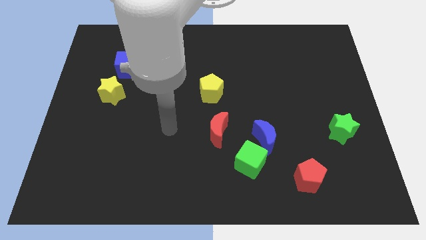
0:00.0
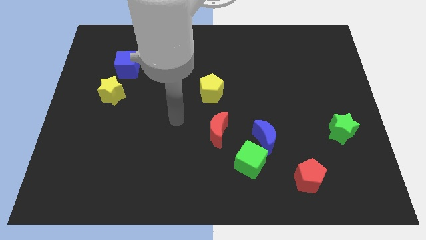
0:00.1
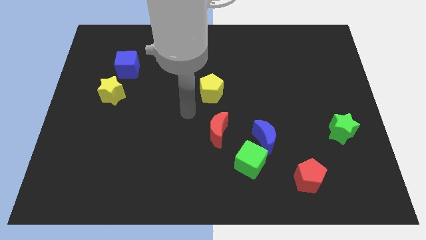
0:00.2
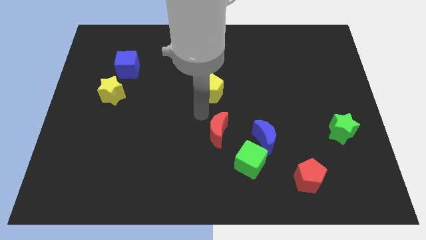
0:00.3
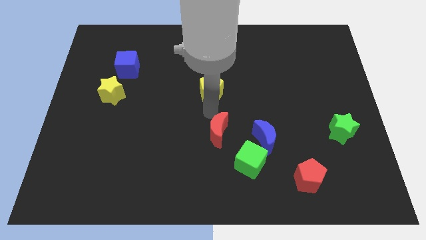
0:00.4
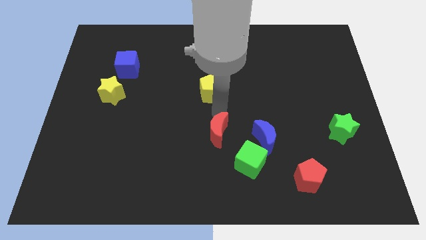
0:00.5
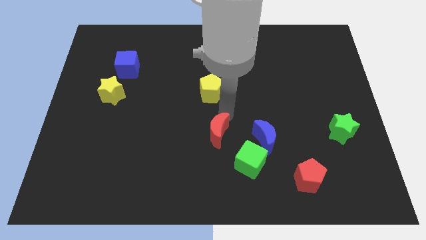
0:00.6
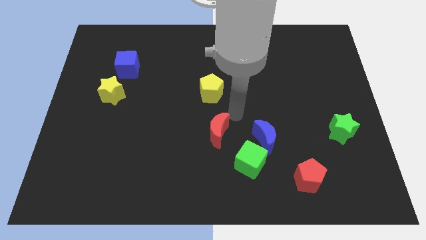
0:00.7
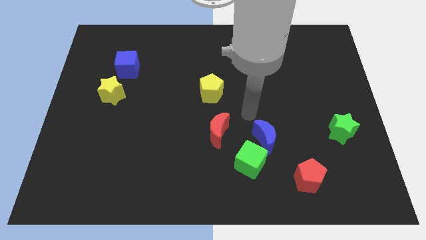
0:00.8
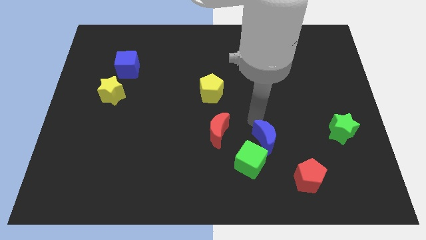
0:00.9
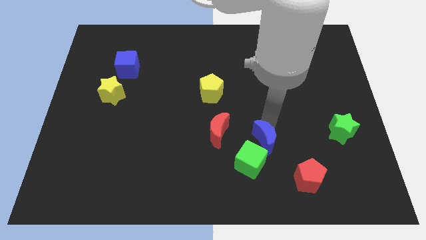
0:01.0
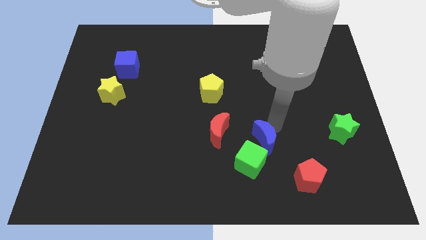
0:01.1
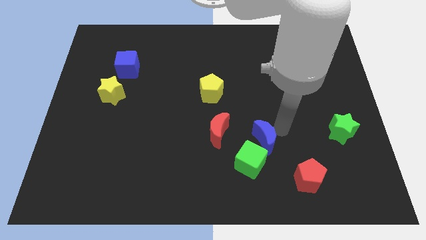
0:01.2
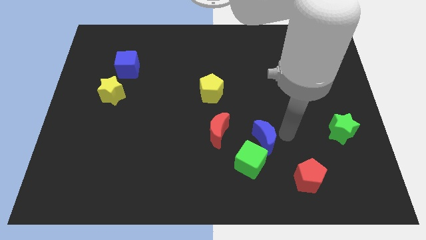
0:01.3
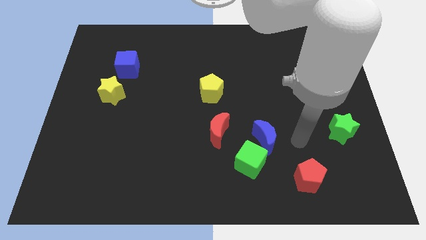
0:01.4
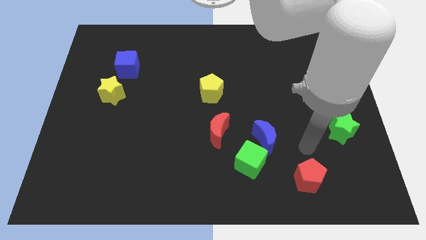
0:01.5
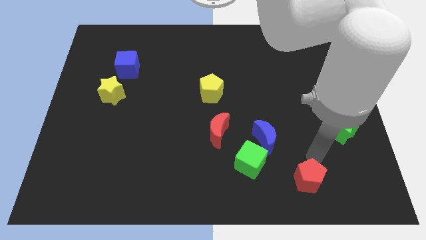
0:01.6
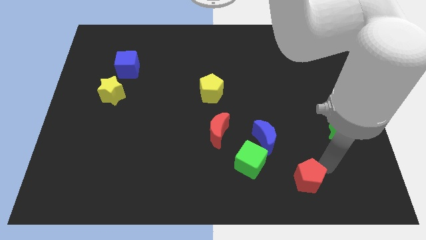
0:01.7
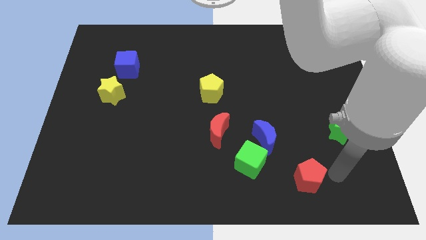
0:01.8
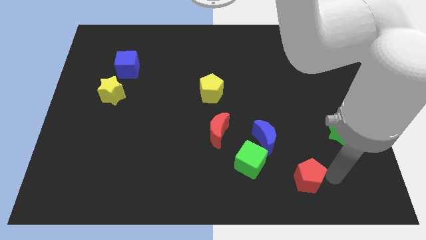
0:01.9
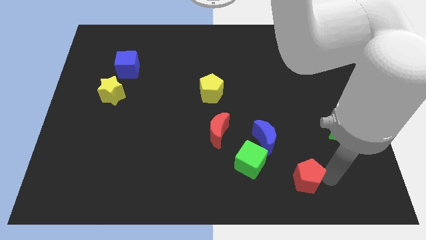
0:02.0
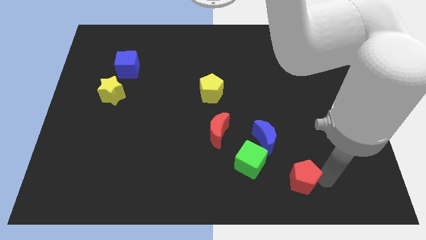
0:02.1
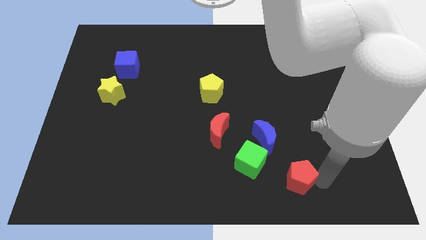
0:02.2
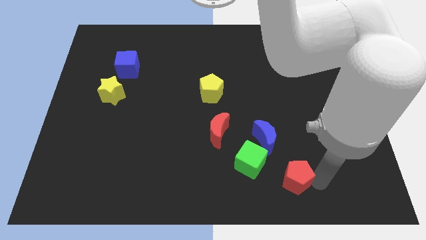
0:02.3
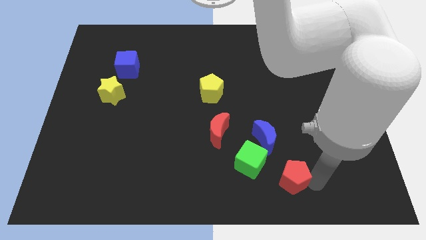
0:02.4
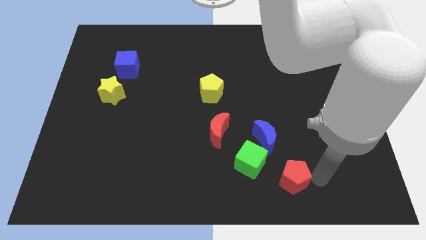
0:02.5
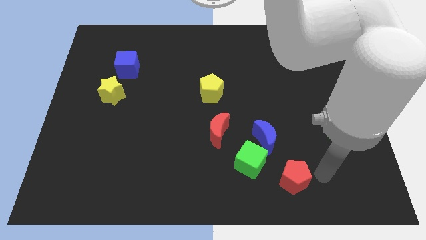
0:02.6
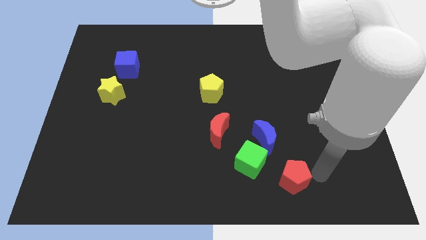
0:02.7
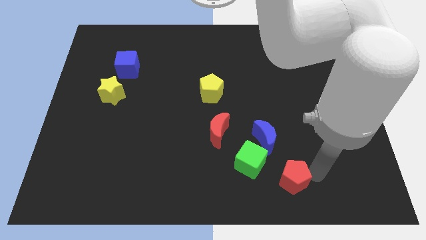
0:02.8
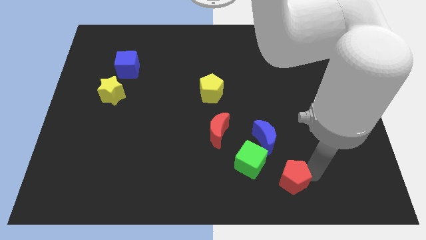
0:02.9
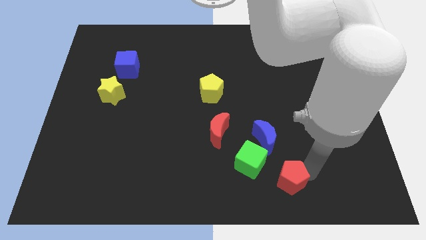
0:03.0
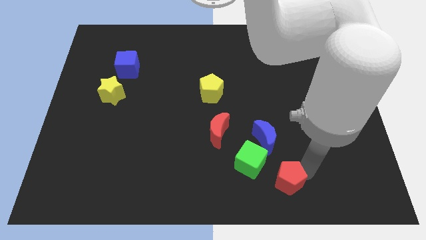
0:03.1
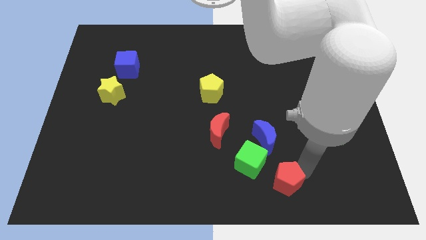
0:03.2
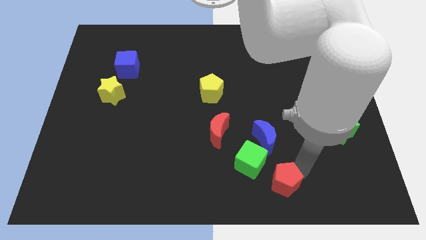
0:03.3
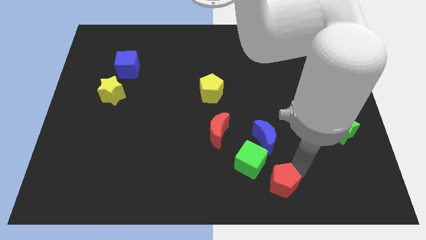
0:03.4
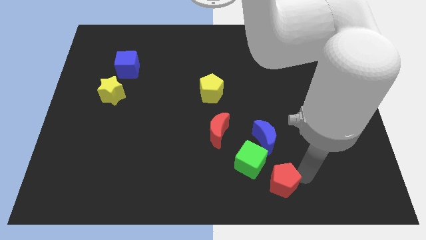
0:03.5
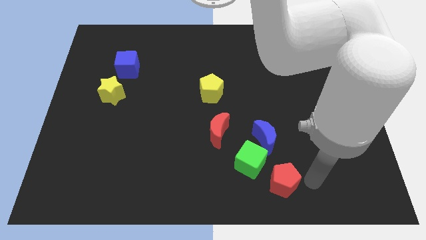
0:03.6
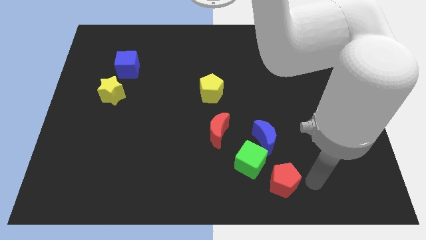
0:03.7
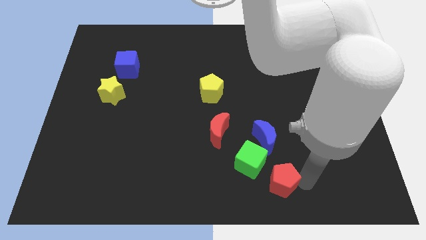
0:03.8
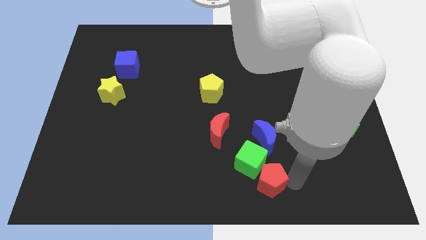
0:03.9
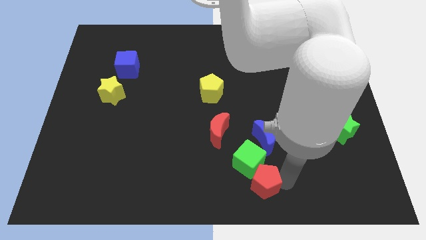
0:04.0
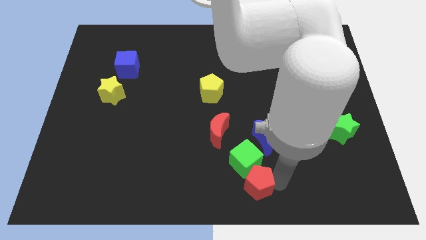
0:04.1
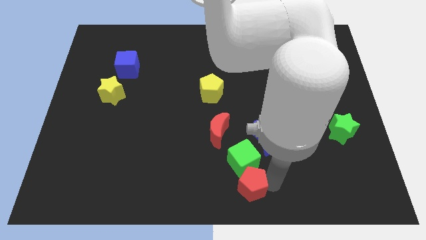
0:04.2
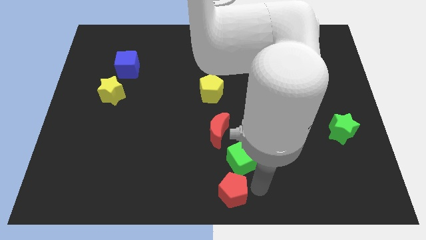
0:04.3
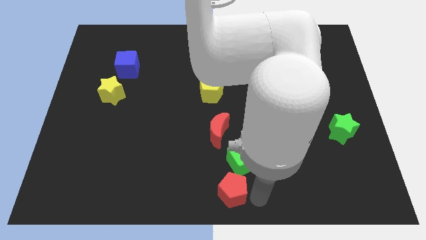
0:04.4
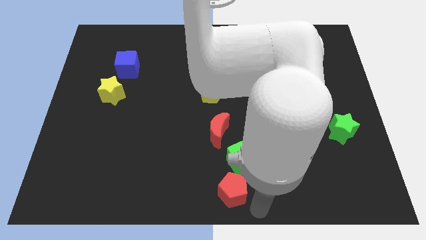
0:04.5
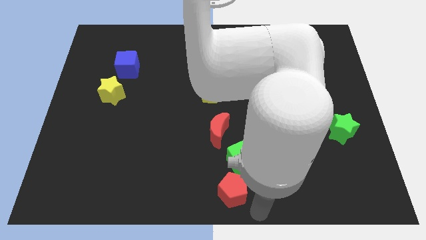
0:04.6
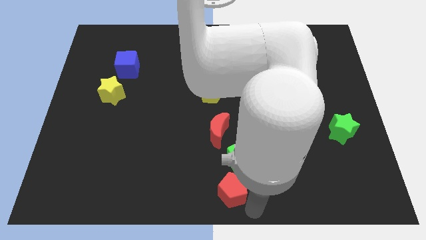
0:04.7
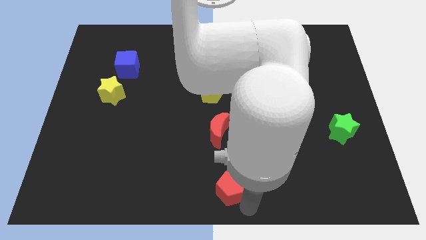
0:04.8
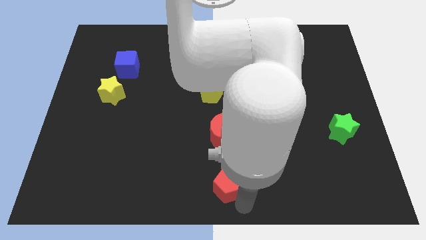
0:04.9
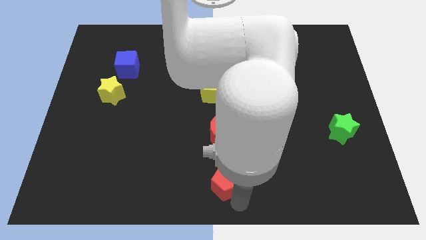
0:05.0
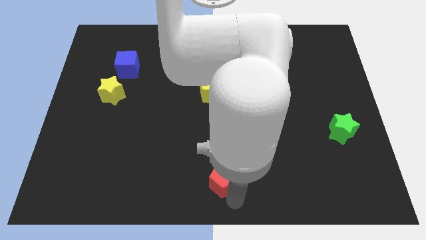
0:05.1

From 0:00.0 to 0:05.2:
push the red pentagon to the left side of the green cube

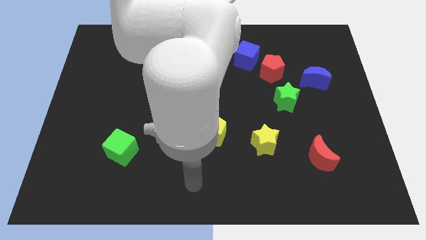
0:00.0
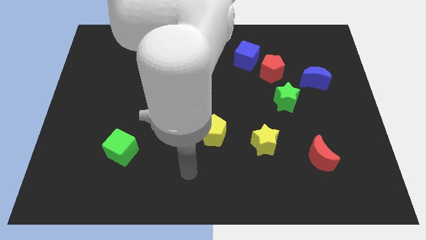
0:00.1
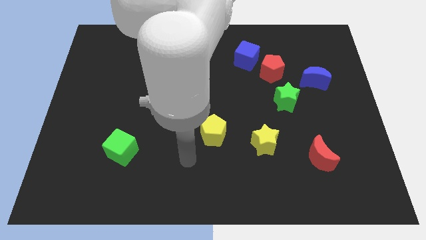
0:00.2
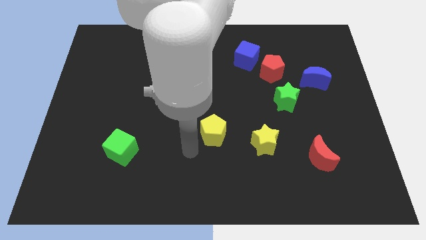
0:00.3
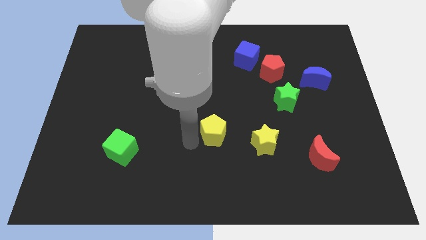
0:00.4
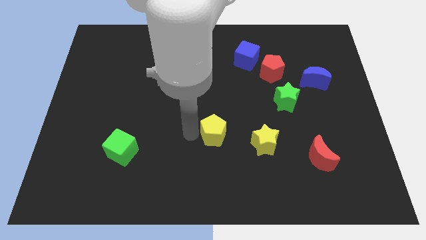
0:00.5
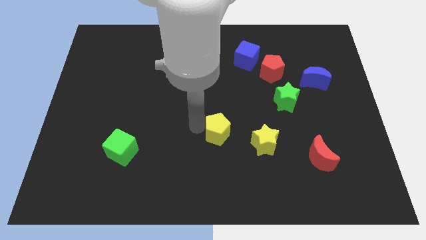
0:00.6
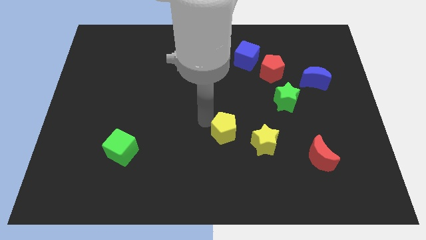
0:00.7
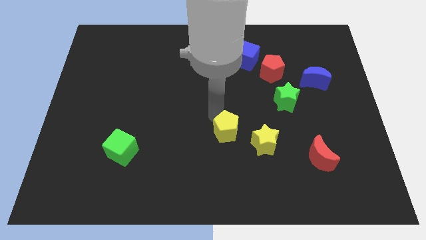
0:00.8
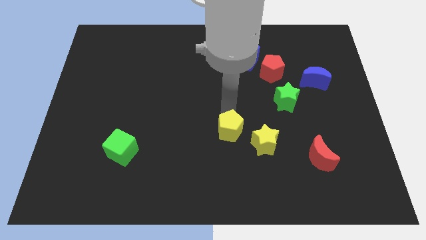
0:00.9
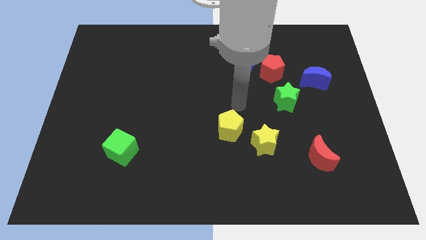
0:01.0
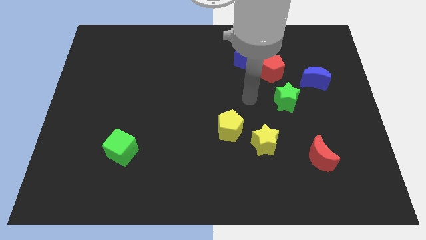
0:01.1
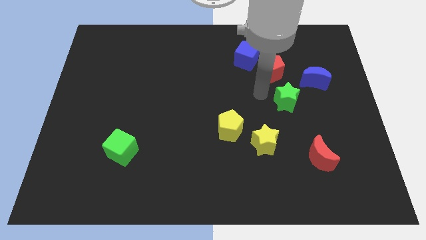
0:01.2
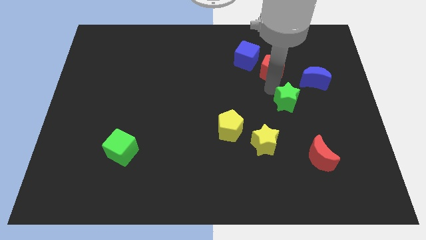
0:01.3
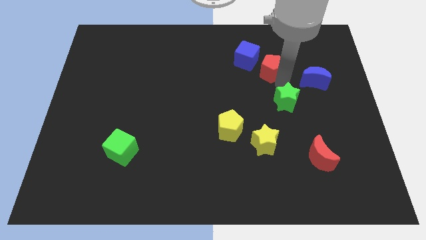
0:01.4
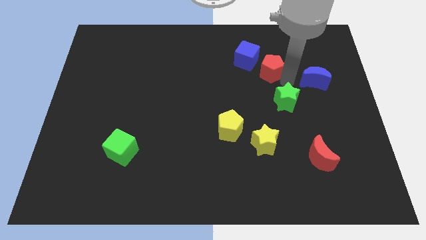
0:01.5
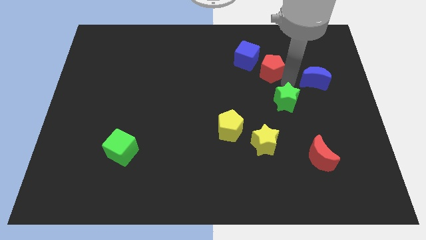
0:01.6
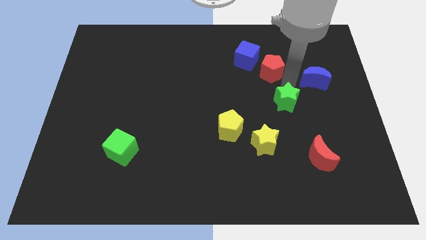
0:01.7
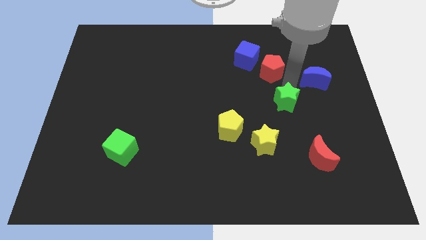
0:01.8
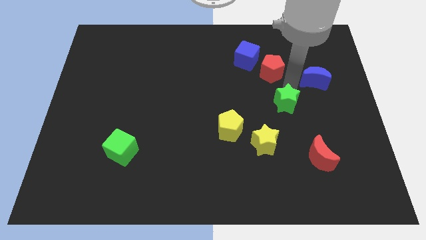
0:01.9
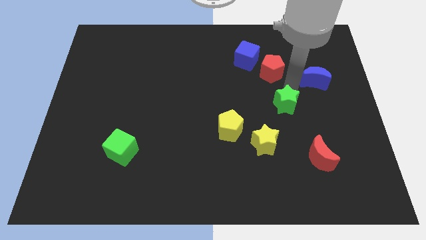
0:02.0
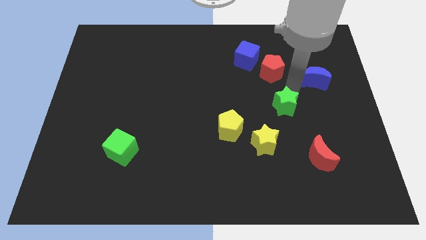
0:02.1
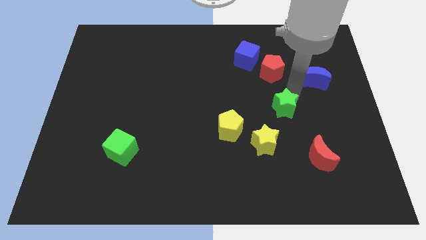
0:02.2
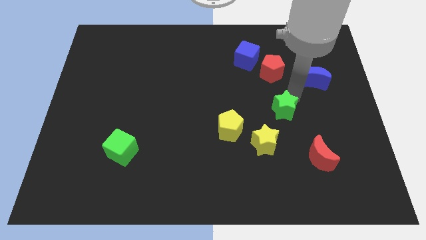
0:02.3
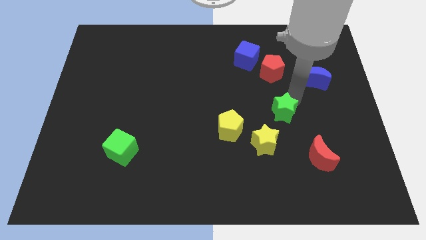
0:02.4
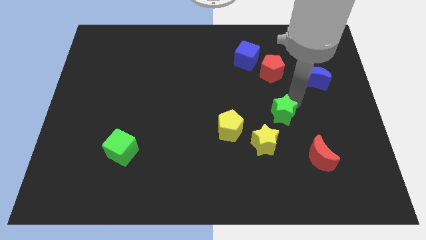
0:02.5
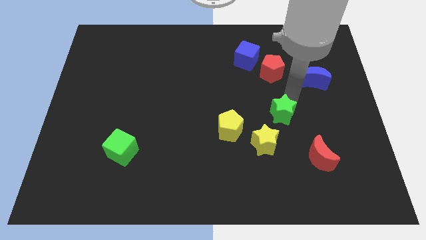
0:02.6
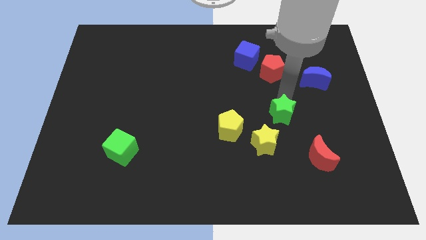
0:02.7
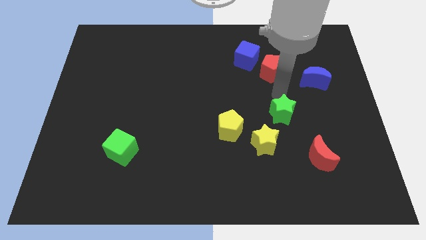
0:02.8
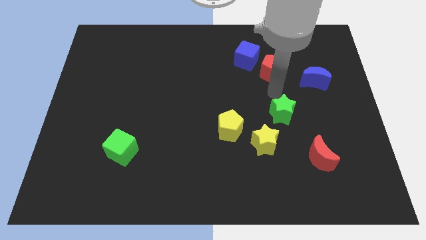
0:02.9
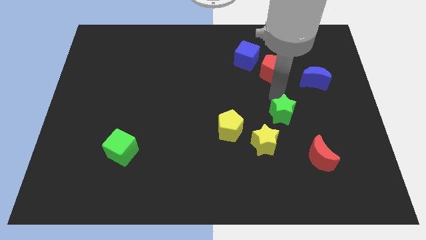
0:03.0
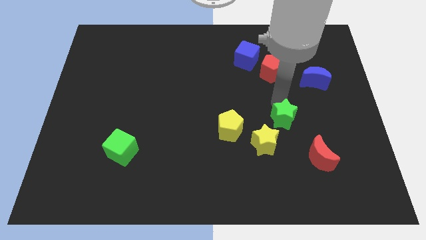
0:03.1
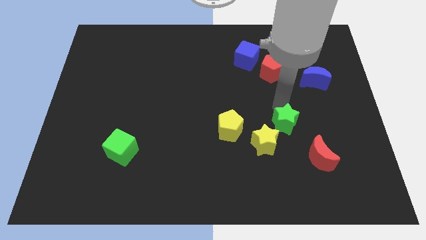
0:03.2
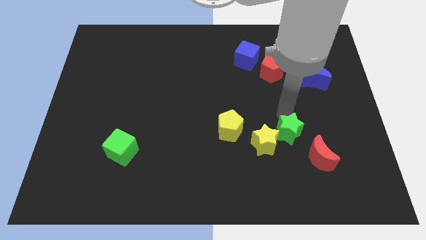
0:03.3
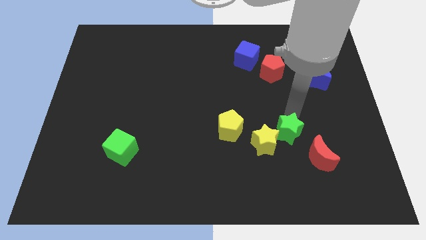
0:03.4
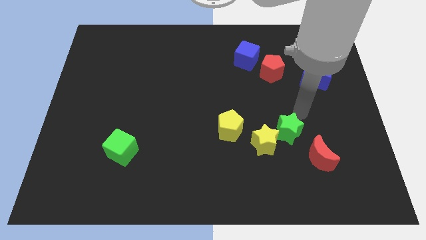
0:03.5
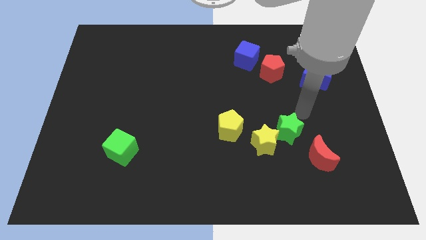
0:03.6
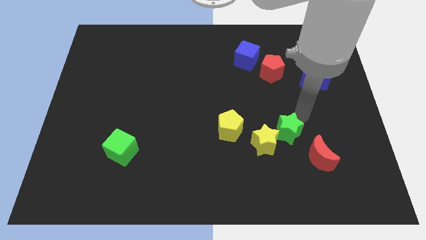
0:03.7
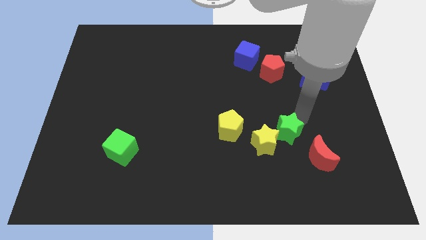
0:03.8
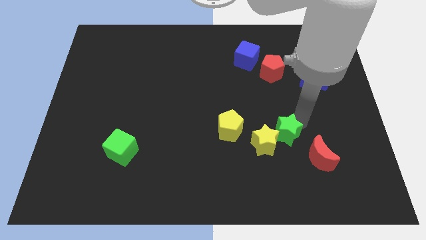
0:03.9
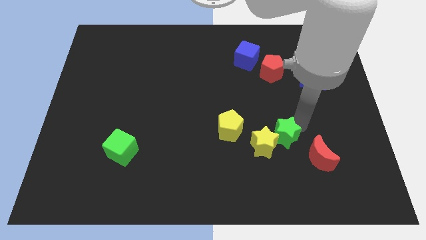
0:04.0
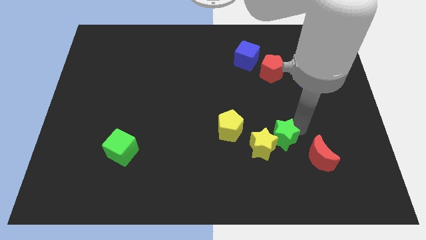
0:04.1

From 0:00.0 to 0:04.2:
move the green star to the left of the red moon
